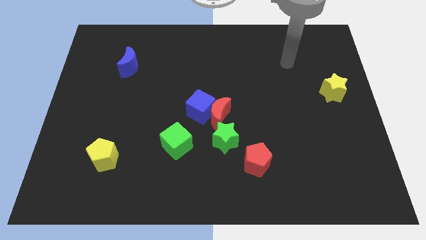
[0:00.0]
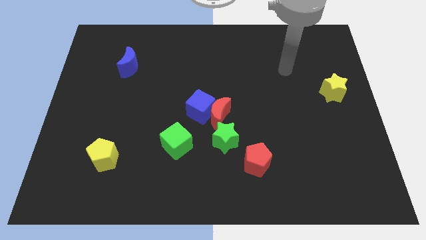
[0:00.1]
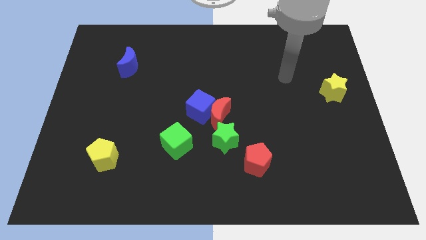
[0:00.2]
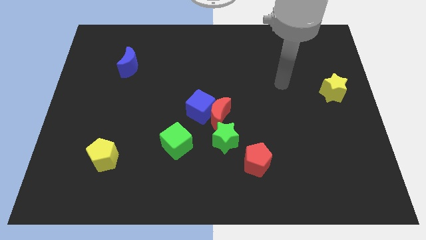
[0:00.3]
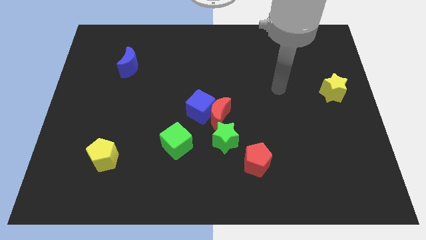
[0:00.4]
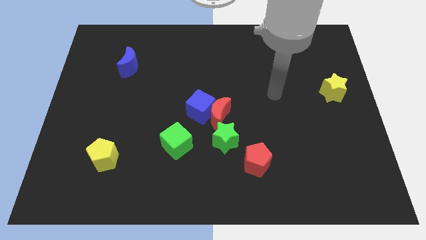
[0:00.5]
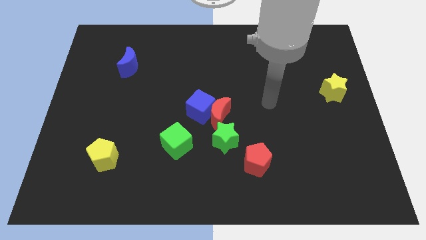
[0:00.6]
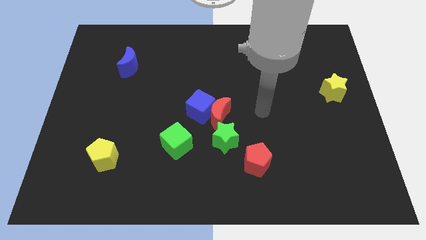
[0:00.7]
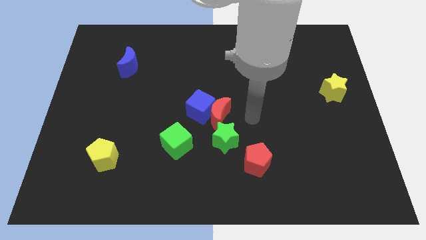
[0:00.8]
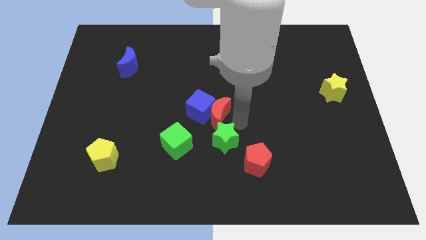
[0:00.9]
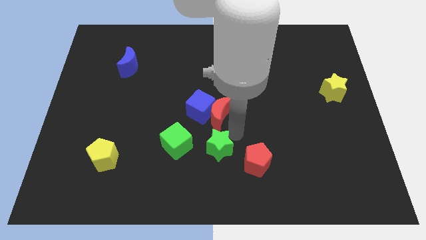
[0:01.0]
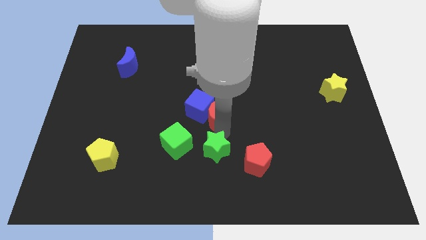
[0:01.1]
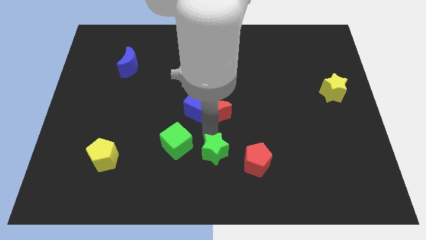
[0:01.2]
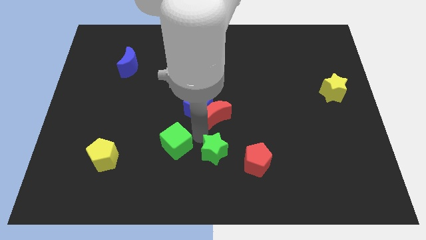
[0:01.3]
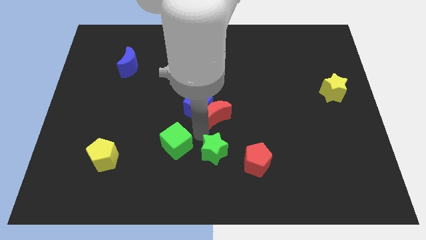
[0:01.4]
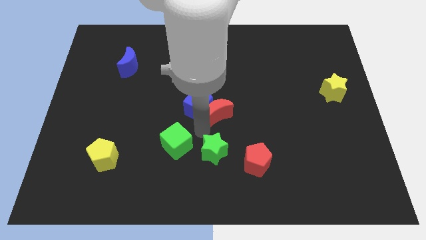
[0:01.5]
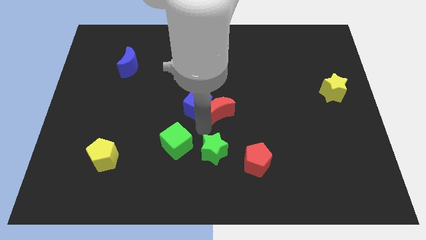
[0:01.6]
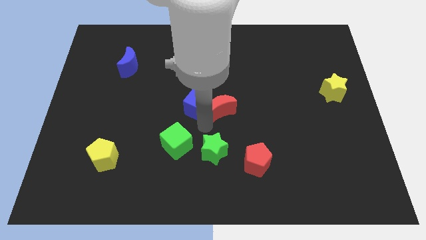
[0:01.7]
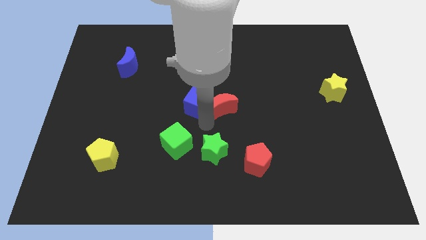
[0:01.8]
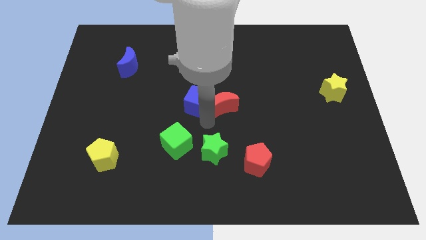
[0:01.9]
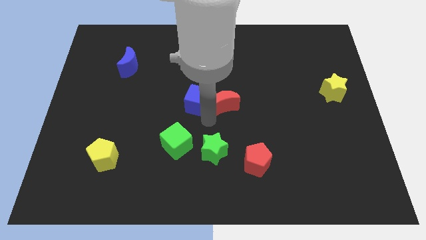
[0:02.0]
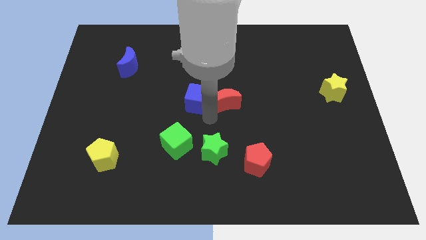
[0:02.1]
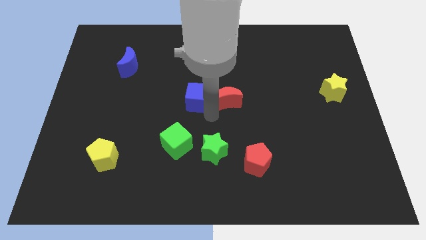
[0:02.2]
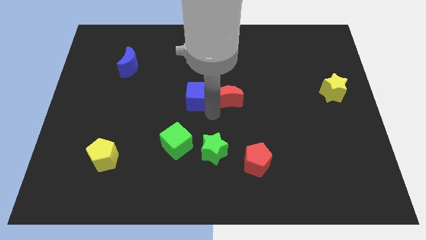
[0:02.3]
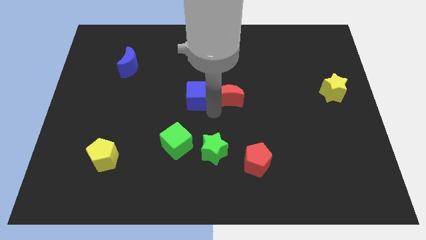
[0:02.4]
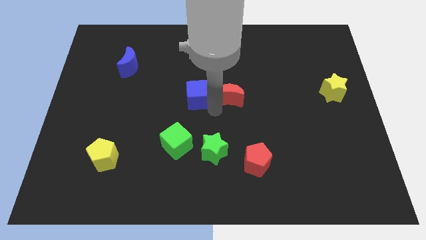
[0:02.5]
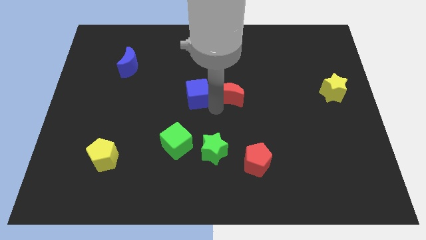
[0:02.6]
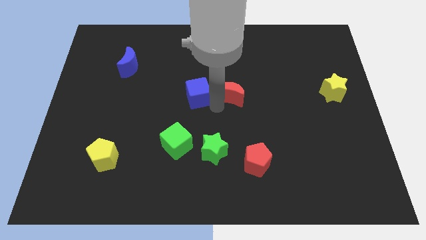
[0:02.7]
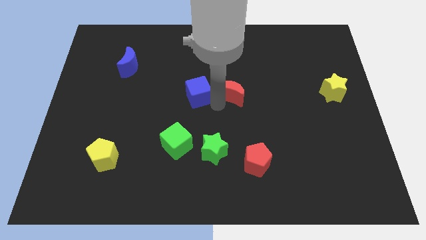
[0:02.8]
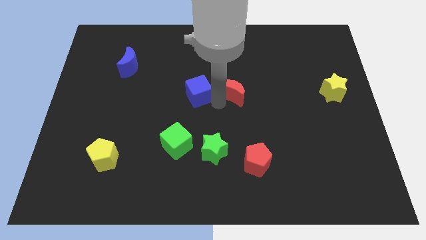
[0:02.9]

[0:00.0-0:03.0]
move the red moon away from the blue cube and green star

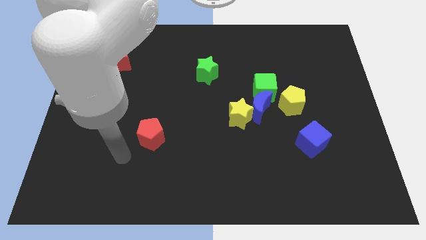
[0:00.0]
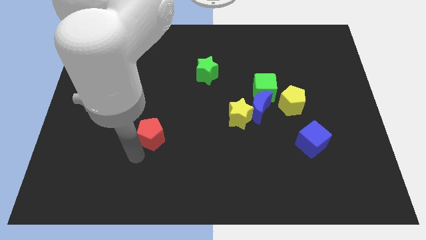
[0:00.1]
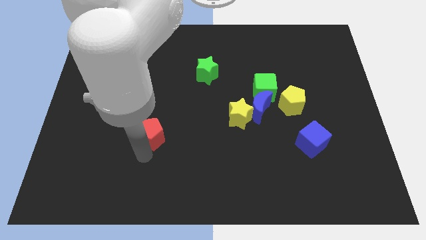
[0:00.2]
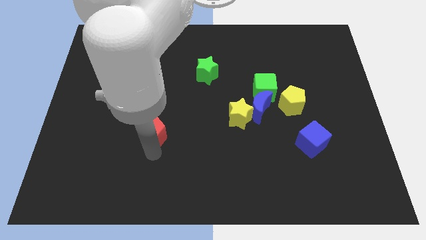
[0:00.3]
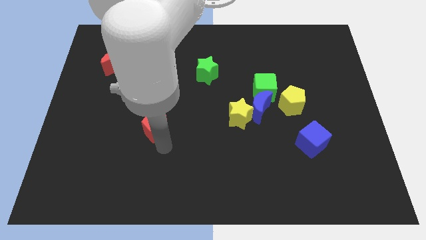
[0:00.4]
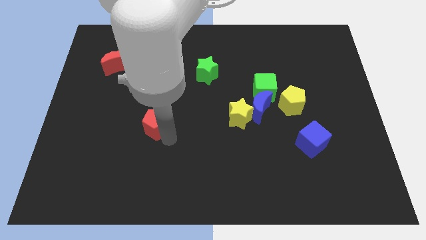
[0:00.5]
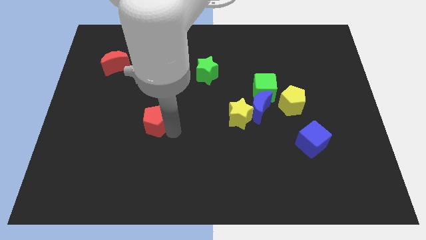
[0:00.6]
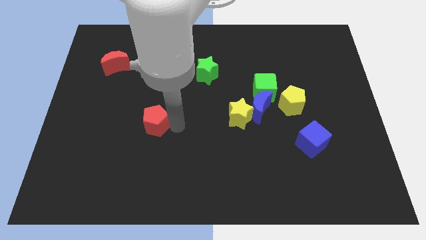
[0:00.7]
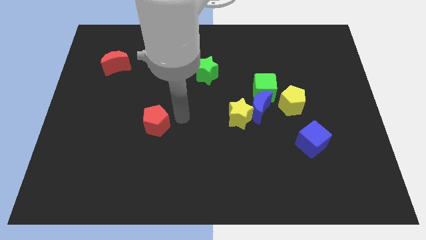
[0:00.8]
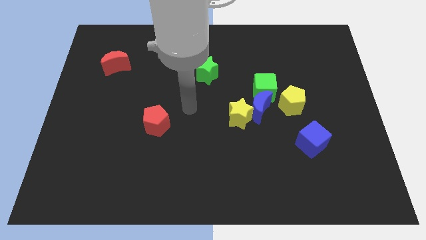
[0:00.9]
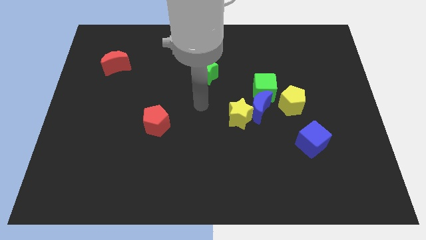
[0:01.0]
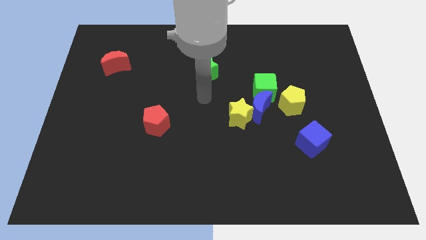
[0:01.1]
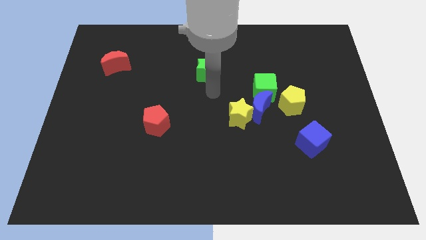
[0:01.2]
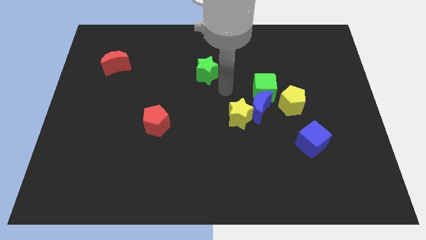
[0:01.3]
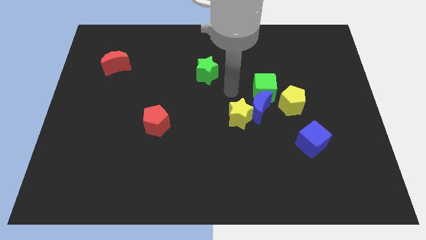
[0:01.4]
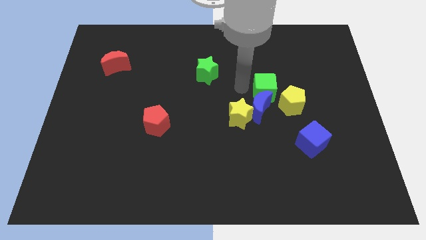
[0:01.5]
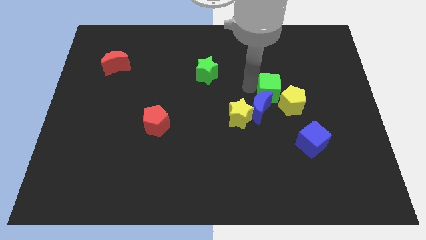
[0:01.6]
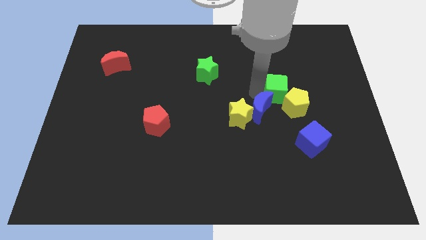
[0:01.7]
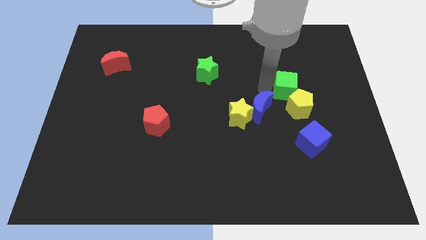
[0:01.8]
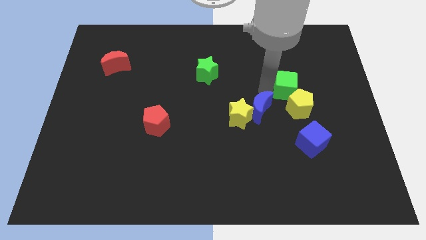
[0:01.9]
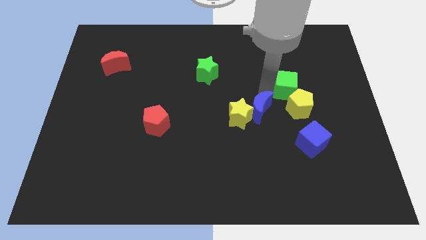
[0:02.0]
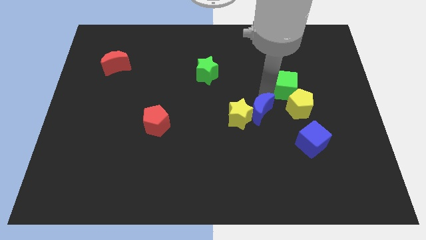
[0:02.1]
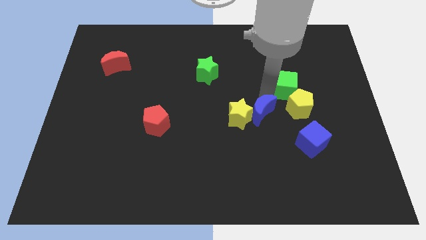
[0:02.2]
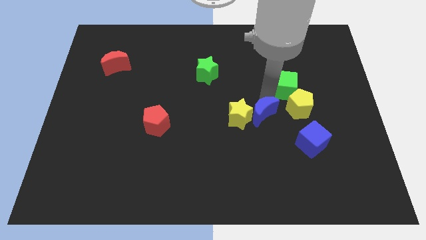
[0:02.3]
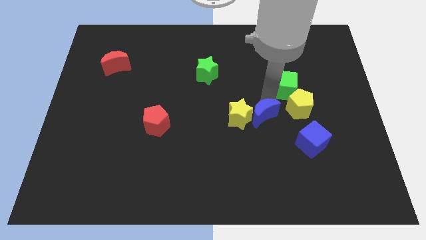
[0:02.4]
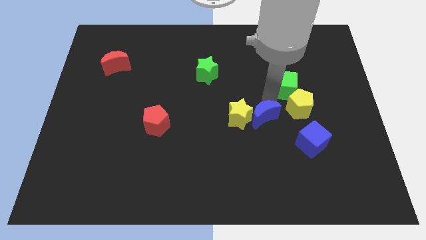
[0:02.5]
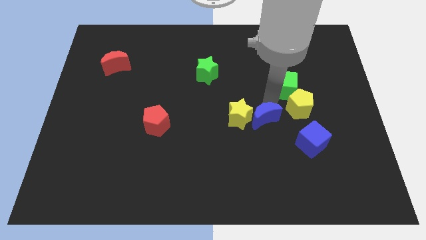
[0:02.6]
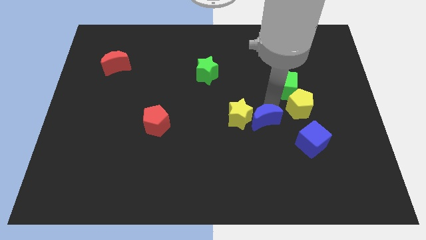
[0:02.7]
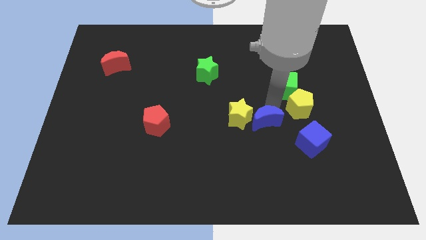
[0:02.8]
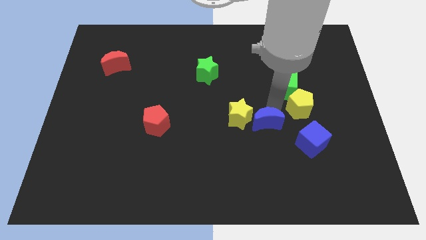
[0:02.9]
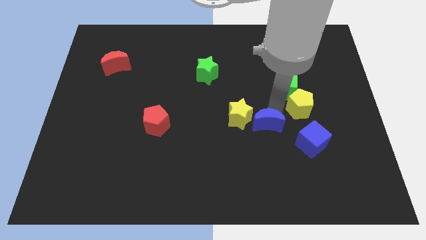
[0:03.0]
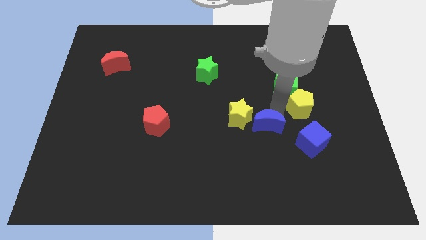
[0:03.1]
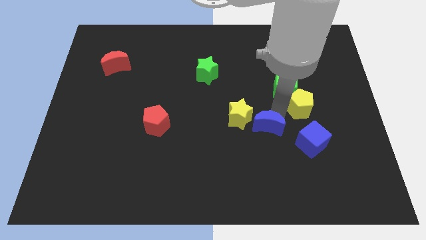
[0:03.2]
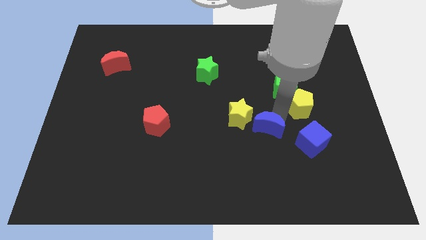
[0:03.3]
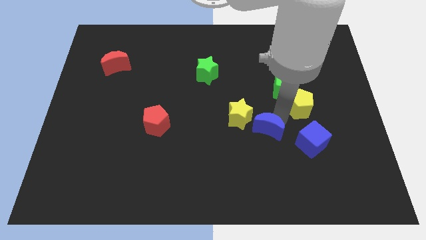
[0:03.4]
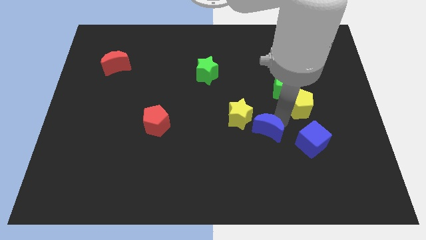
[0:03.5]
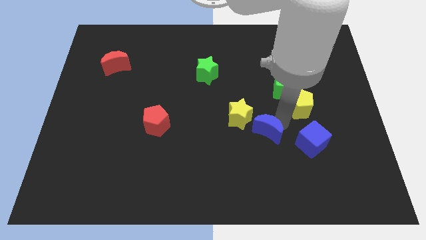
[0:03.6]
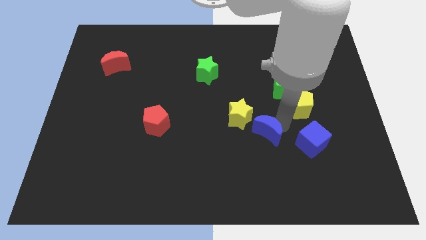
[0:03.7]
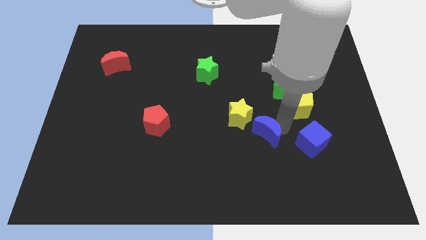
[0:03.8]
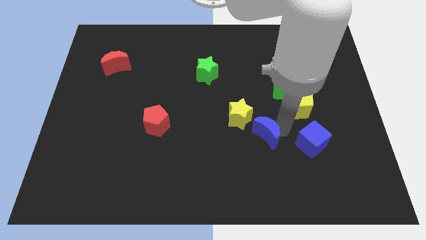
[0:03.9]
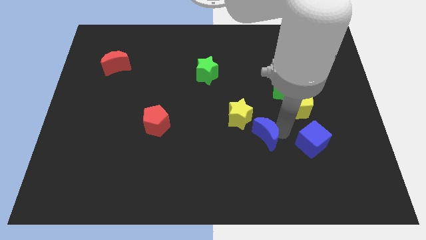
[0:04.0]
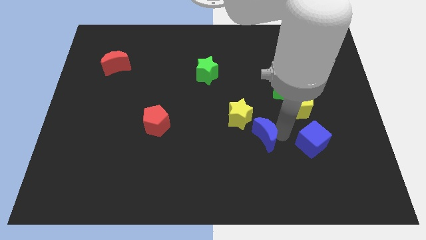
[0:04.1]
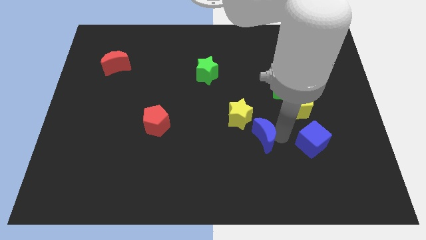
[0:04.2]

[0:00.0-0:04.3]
move the blue moon away from the group of blocks

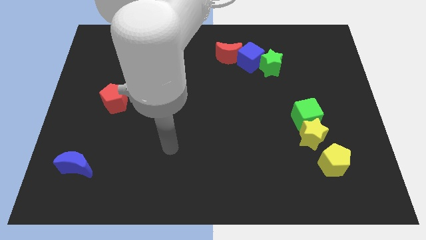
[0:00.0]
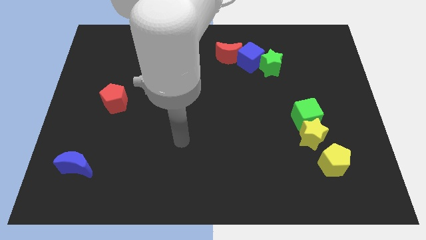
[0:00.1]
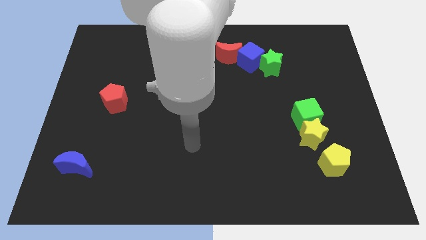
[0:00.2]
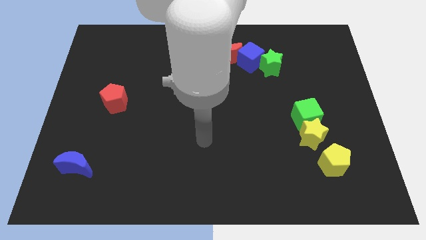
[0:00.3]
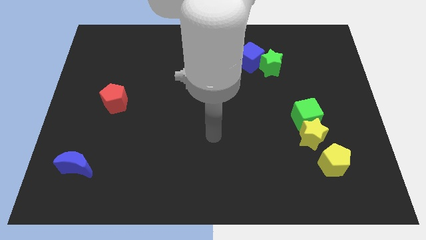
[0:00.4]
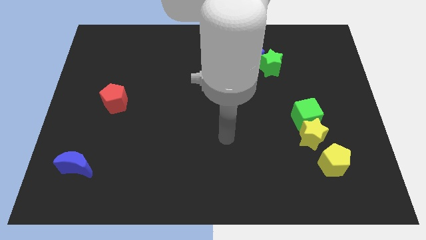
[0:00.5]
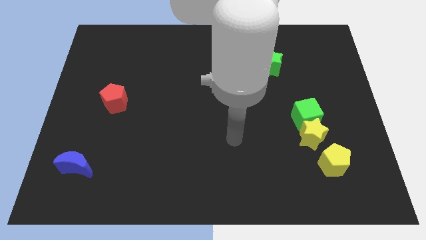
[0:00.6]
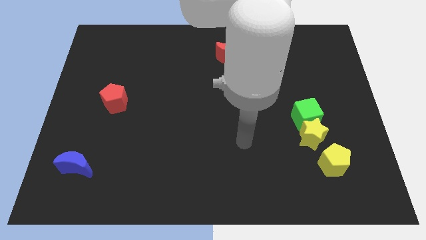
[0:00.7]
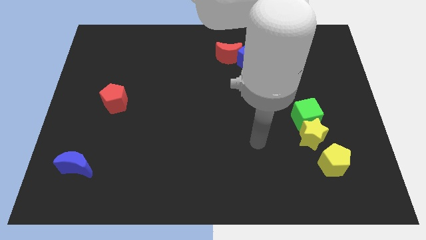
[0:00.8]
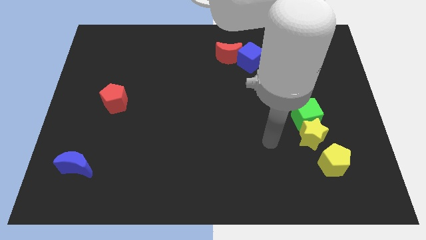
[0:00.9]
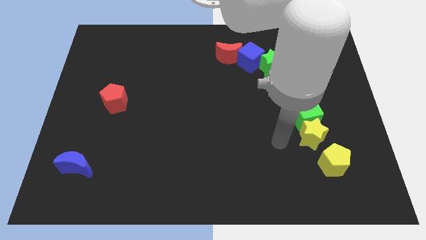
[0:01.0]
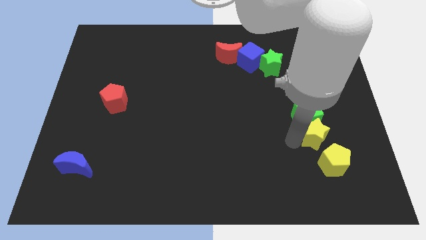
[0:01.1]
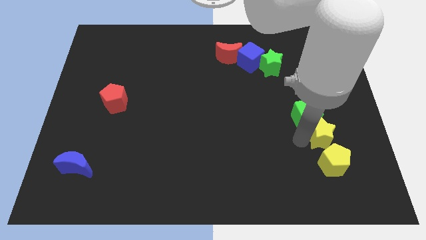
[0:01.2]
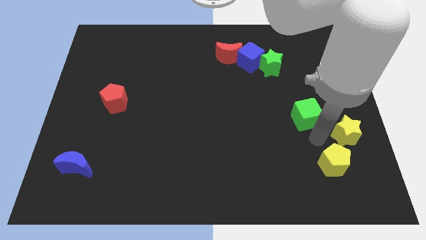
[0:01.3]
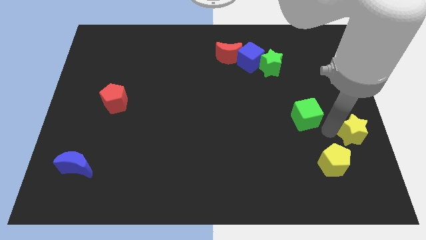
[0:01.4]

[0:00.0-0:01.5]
move the green cube away from the yellow star

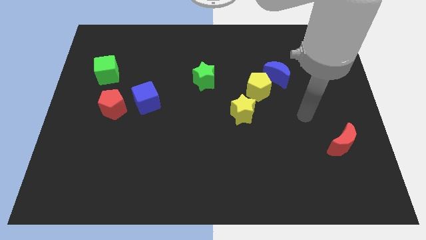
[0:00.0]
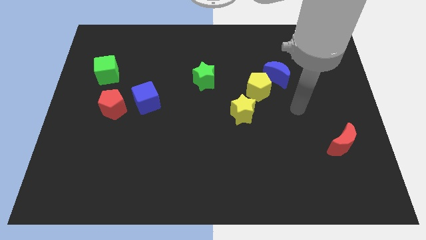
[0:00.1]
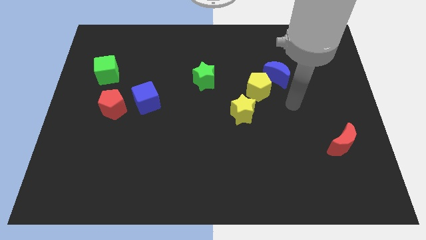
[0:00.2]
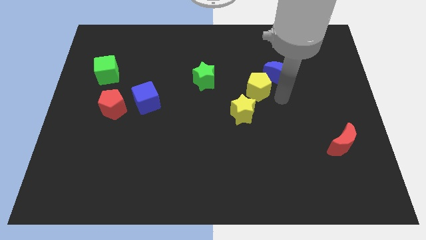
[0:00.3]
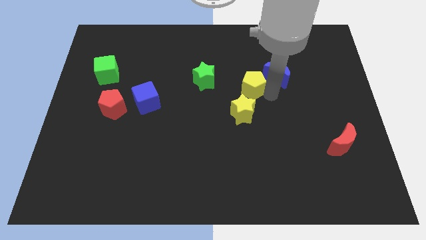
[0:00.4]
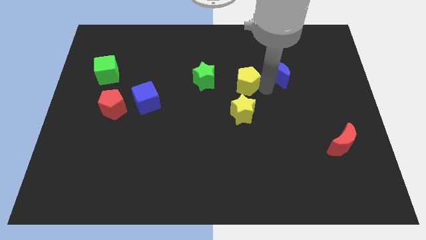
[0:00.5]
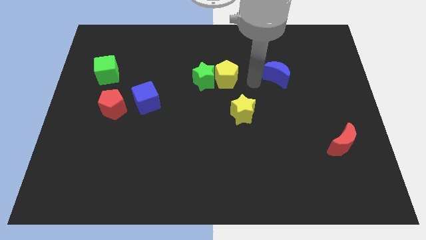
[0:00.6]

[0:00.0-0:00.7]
separate the blue moon from the yellow pentagon
